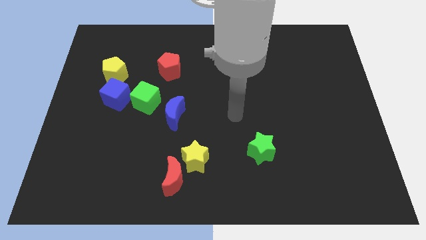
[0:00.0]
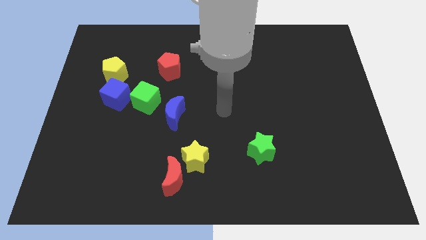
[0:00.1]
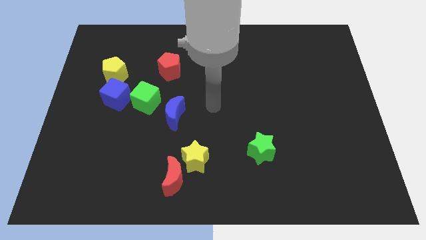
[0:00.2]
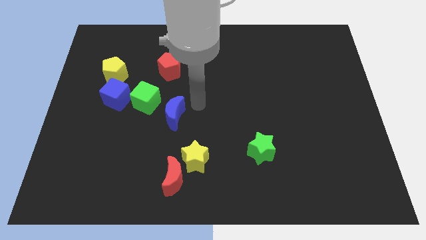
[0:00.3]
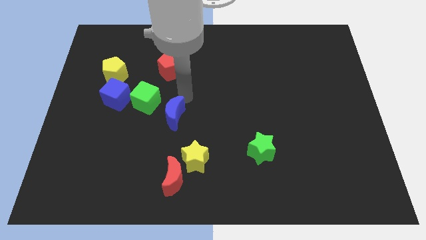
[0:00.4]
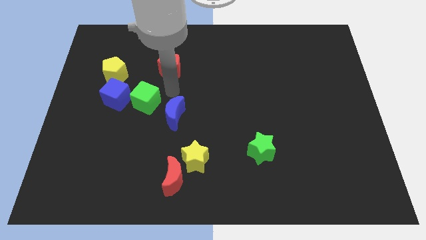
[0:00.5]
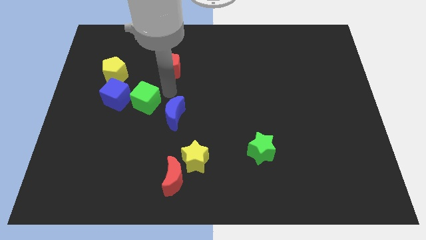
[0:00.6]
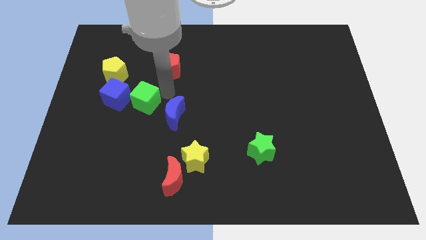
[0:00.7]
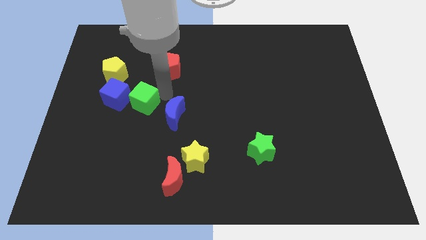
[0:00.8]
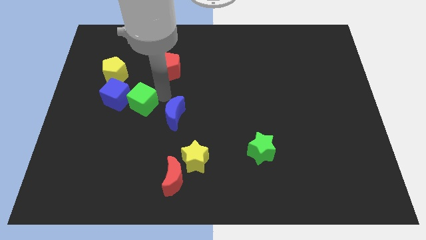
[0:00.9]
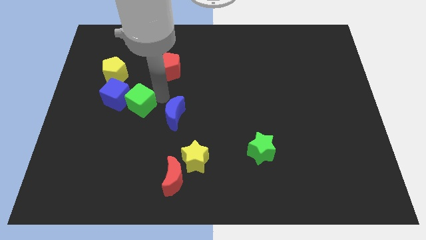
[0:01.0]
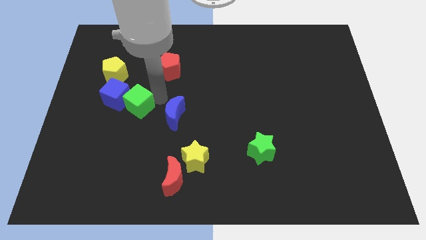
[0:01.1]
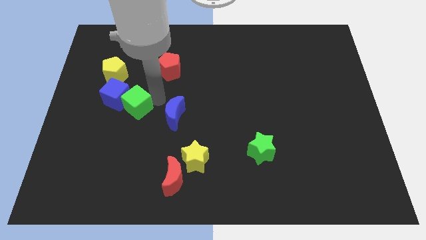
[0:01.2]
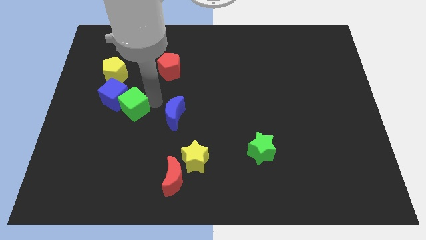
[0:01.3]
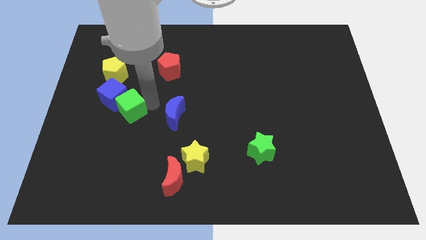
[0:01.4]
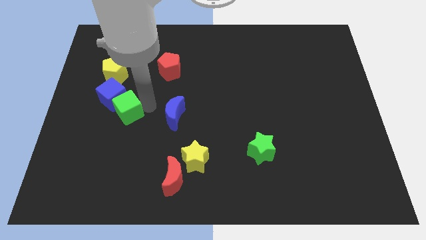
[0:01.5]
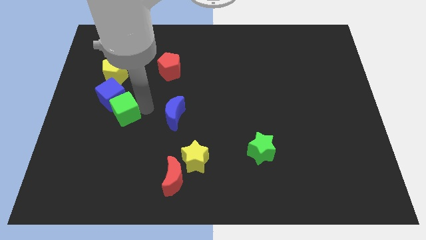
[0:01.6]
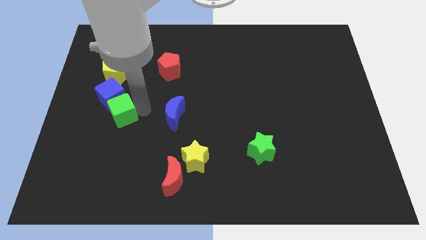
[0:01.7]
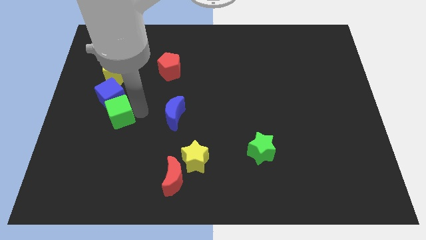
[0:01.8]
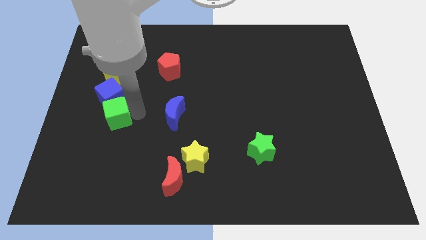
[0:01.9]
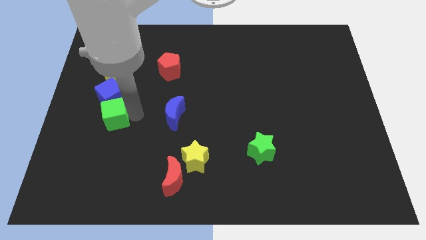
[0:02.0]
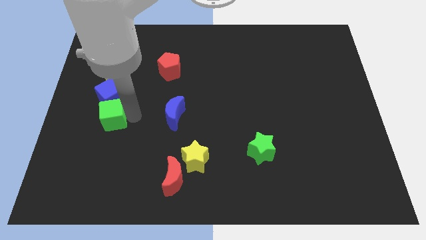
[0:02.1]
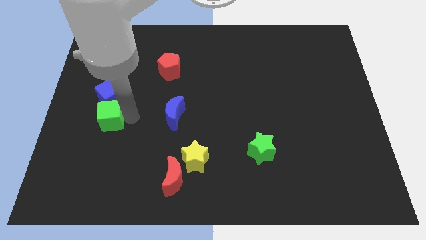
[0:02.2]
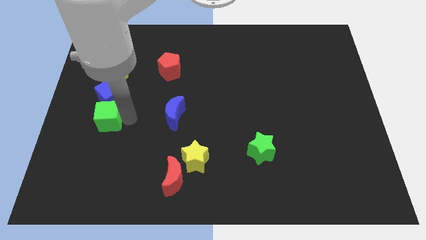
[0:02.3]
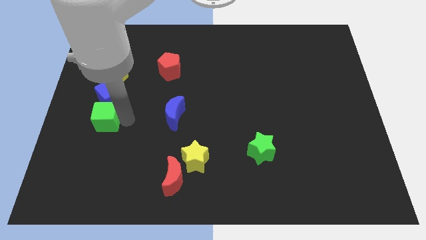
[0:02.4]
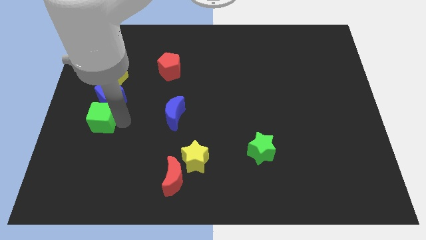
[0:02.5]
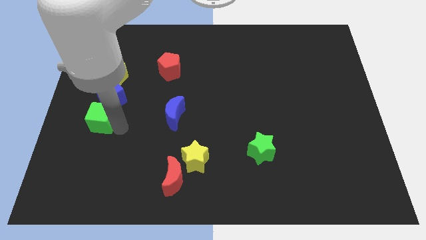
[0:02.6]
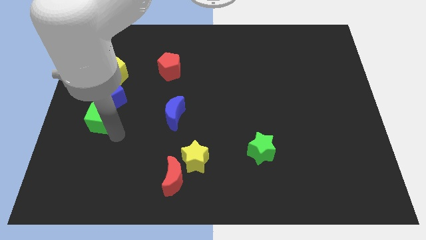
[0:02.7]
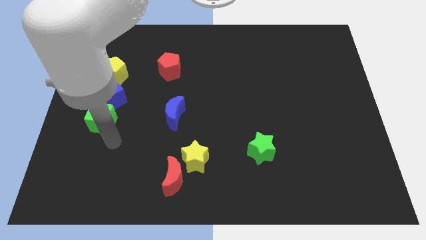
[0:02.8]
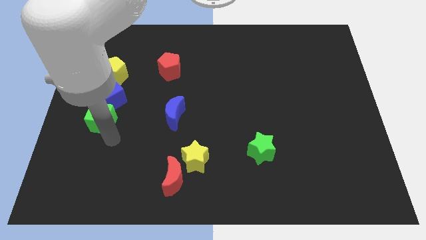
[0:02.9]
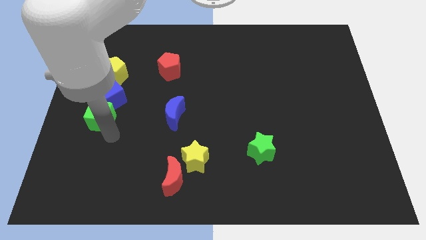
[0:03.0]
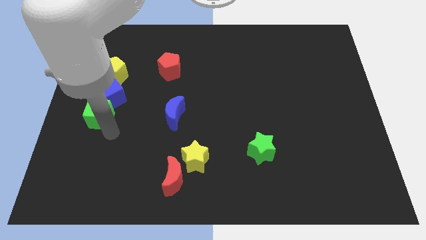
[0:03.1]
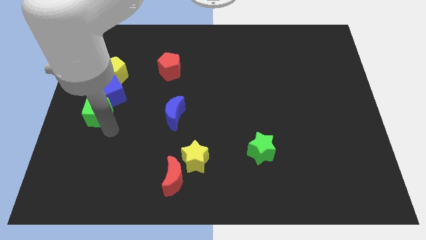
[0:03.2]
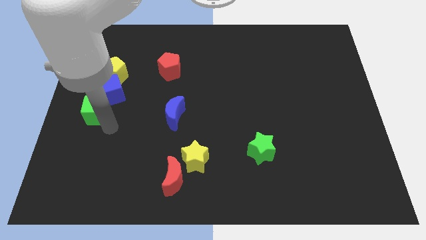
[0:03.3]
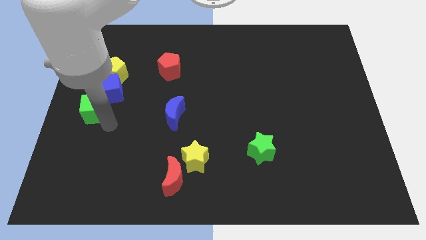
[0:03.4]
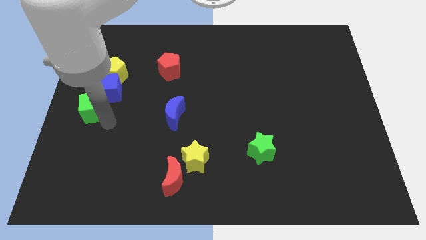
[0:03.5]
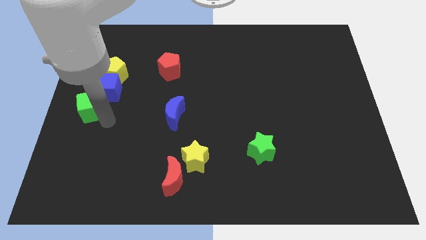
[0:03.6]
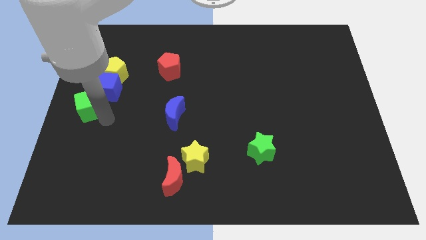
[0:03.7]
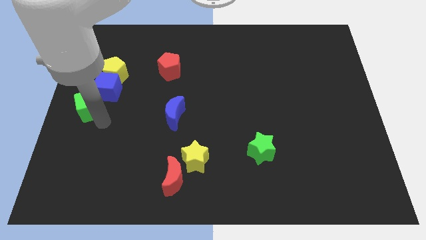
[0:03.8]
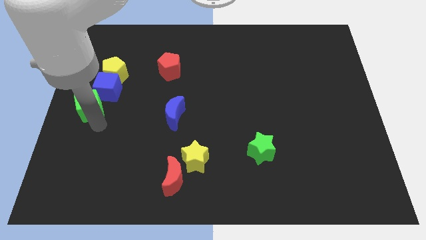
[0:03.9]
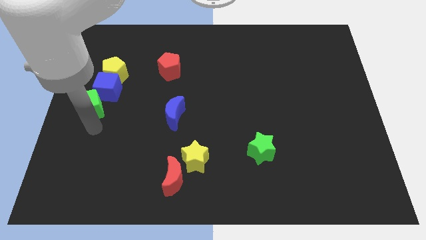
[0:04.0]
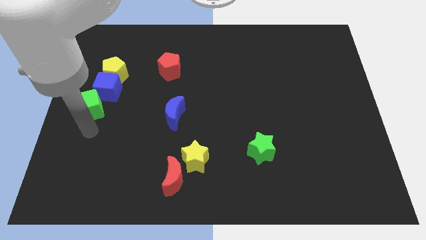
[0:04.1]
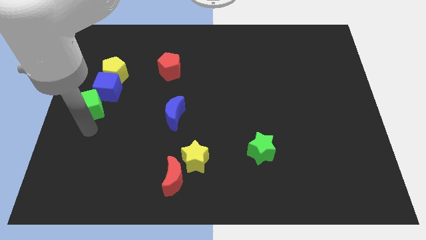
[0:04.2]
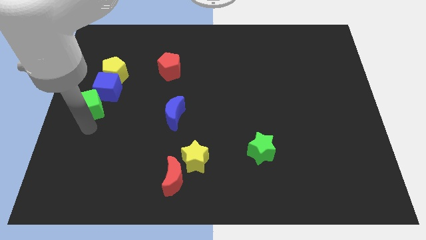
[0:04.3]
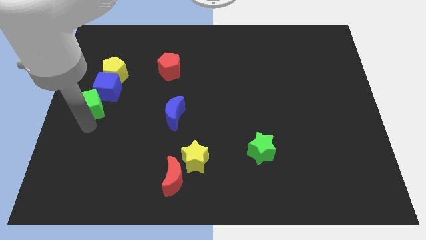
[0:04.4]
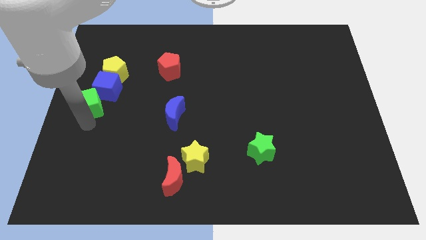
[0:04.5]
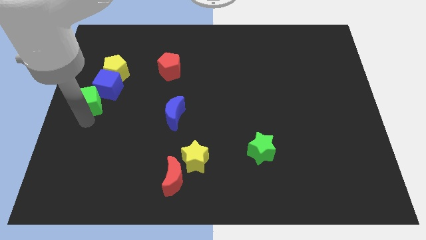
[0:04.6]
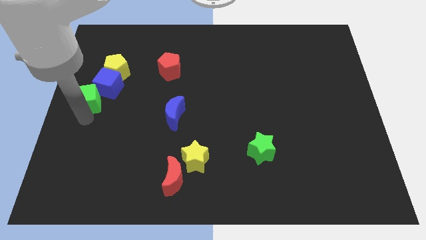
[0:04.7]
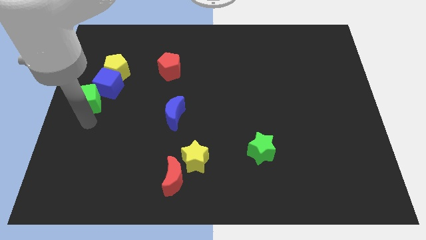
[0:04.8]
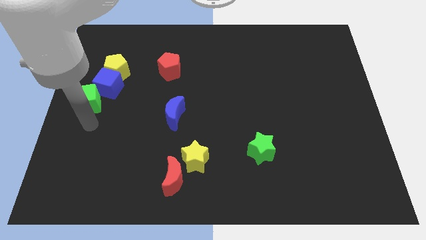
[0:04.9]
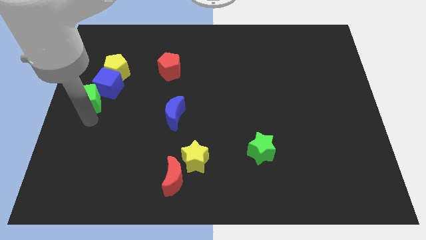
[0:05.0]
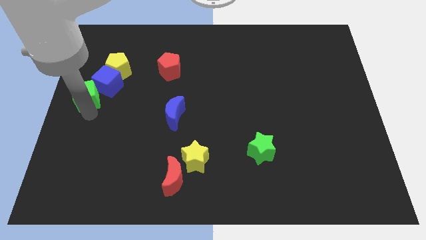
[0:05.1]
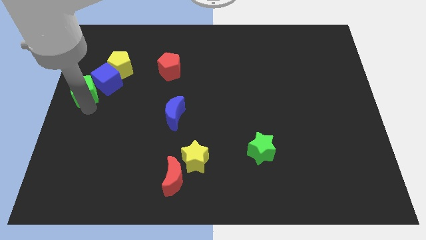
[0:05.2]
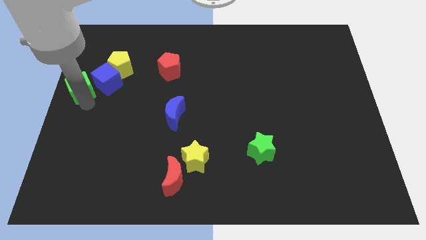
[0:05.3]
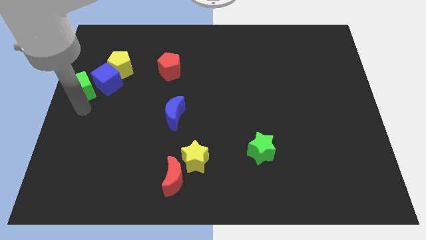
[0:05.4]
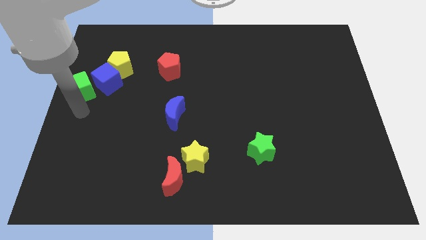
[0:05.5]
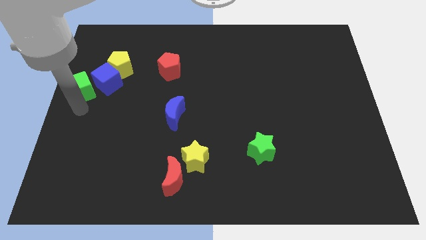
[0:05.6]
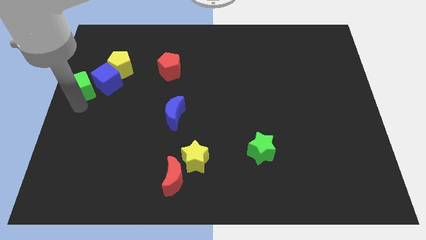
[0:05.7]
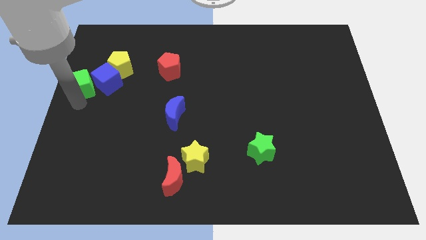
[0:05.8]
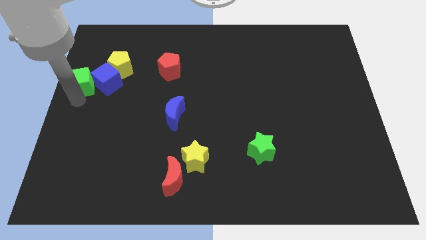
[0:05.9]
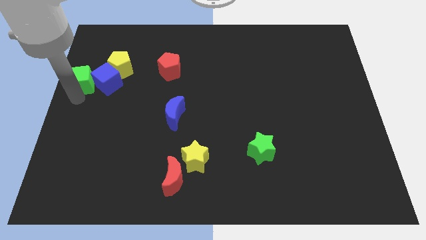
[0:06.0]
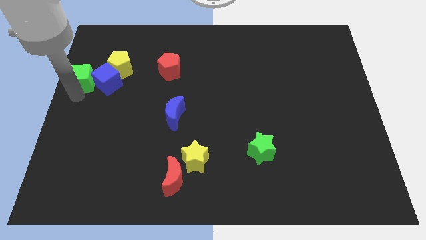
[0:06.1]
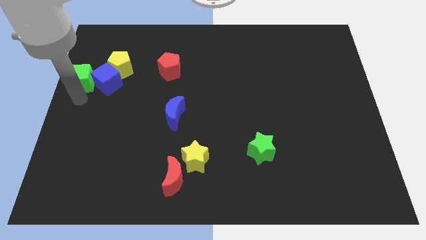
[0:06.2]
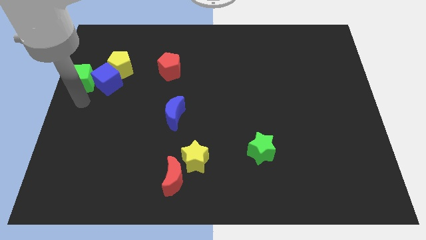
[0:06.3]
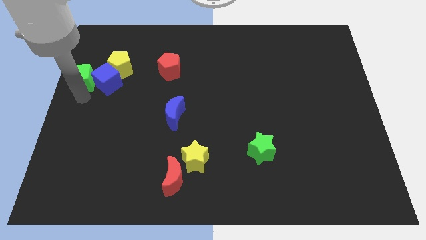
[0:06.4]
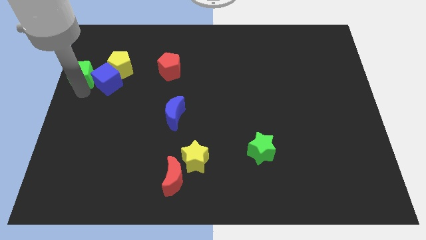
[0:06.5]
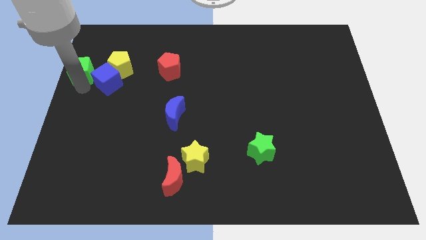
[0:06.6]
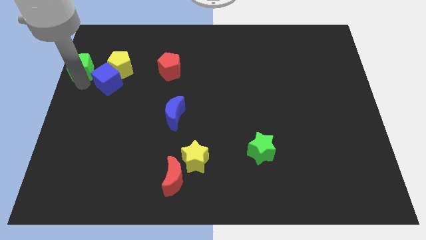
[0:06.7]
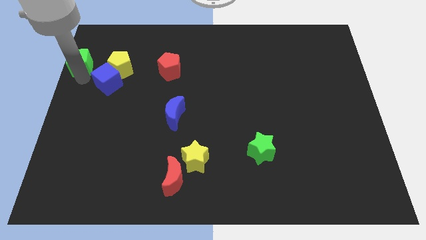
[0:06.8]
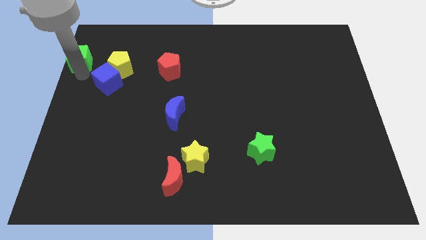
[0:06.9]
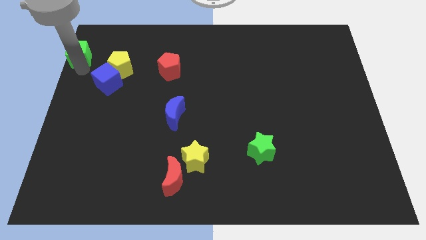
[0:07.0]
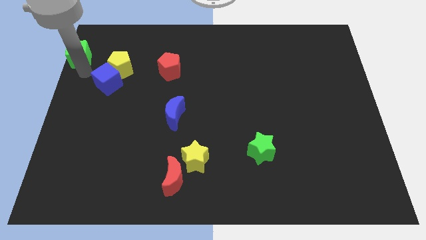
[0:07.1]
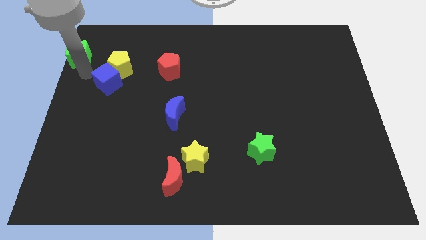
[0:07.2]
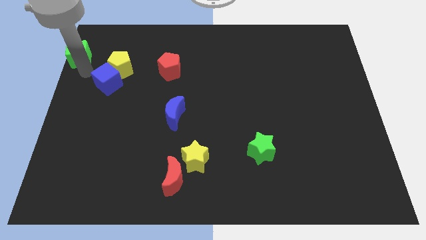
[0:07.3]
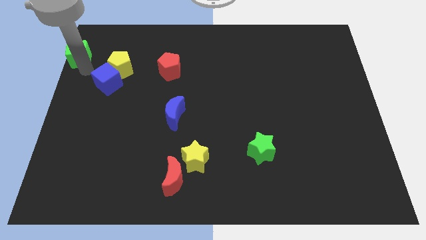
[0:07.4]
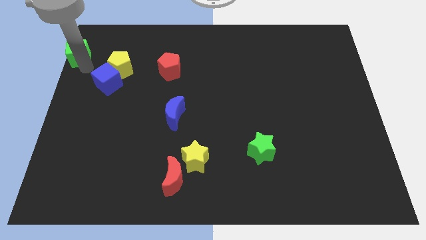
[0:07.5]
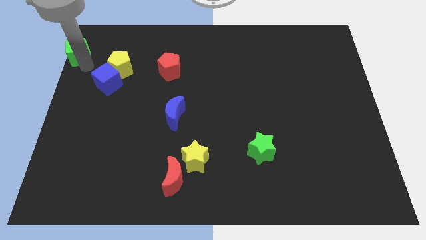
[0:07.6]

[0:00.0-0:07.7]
push the green cube to the top left
